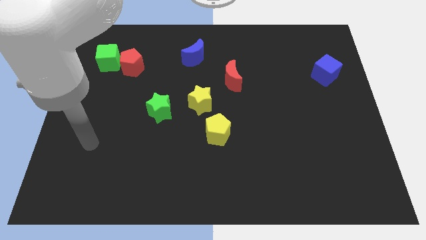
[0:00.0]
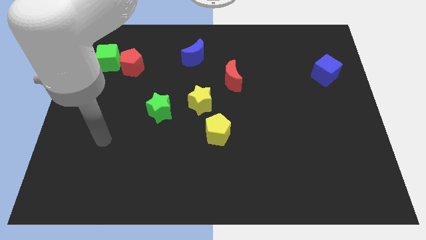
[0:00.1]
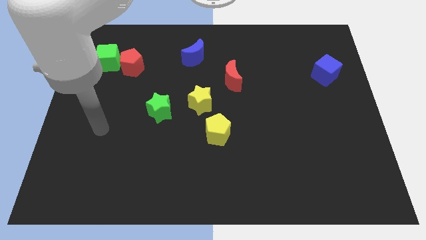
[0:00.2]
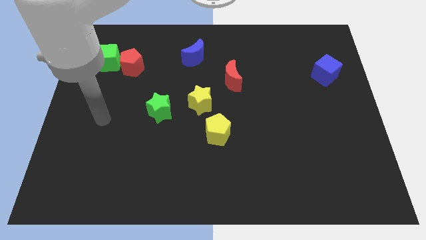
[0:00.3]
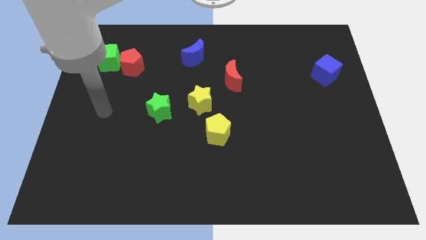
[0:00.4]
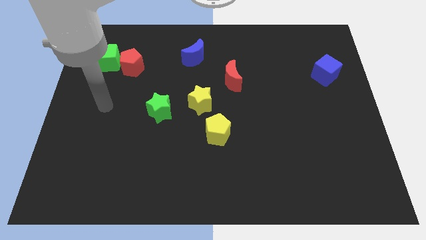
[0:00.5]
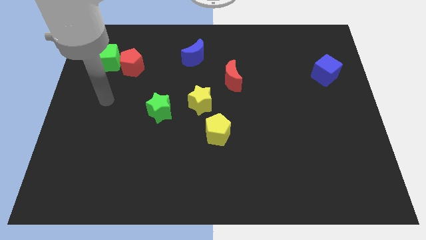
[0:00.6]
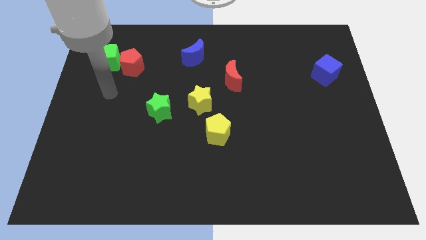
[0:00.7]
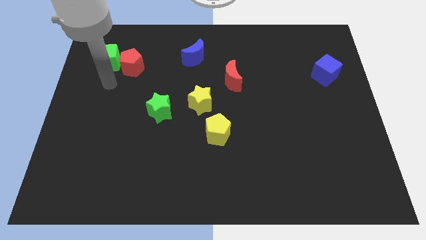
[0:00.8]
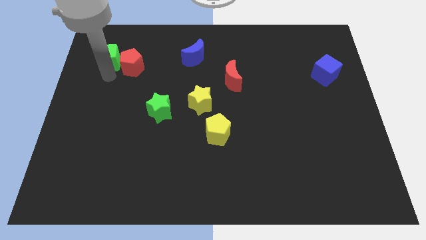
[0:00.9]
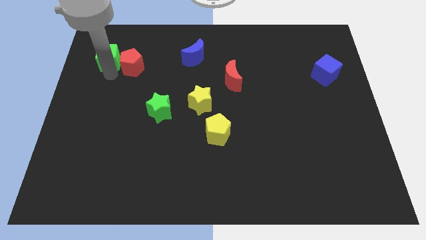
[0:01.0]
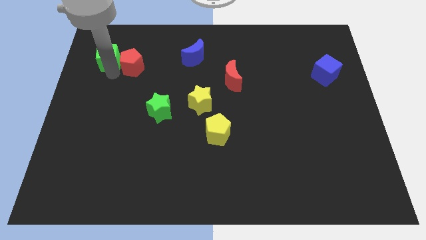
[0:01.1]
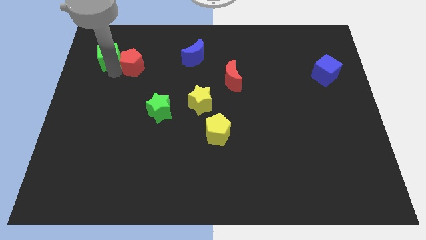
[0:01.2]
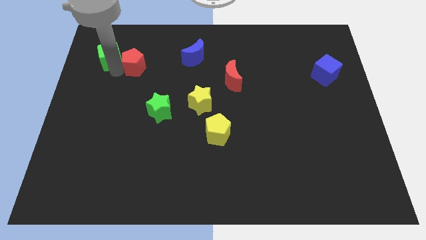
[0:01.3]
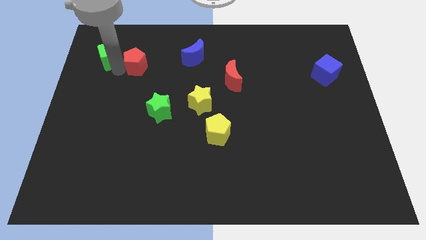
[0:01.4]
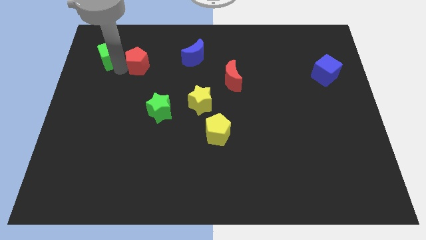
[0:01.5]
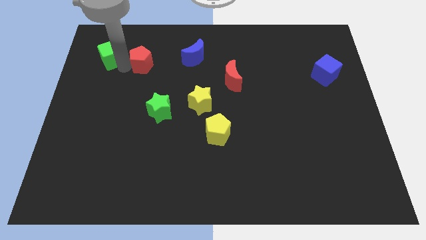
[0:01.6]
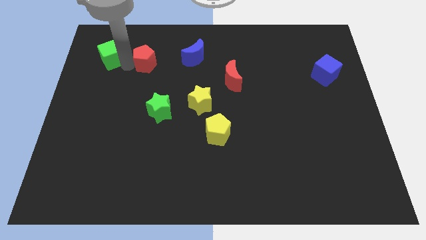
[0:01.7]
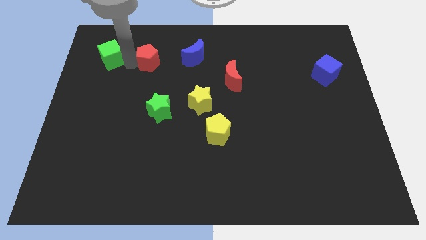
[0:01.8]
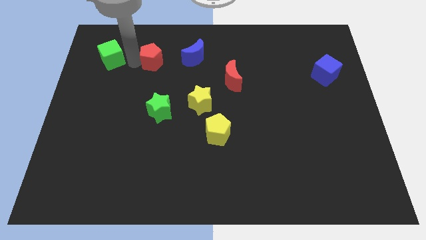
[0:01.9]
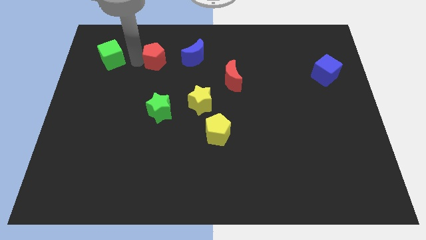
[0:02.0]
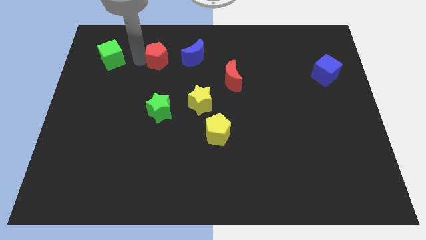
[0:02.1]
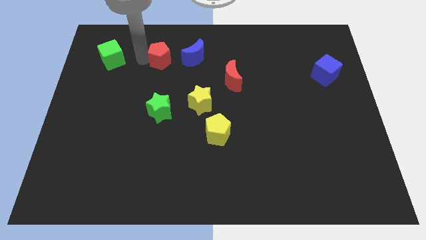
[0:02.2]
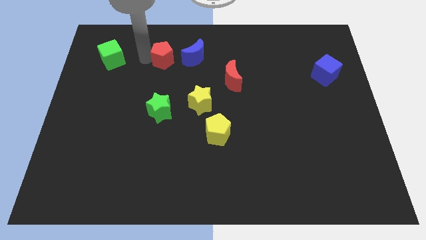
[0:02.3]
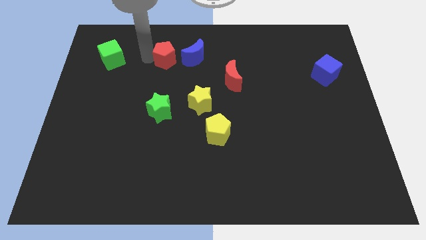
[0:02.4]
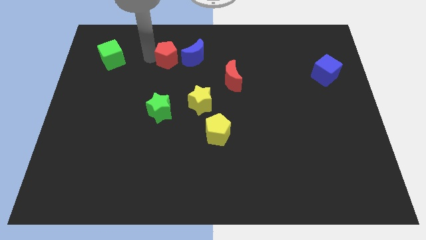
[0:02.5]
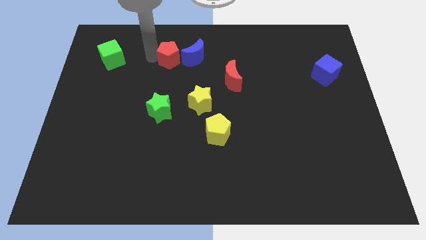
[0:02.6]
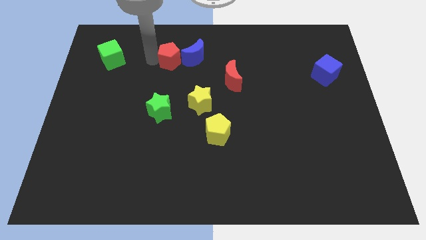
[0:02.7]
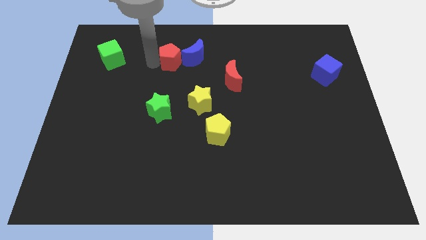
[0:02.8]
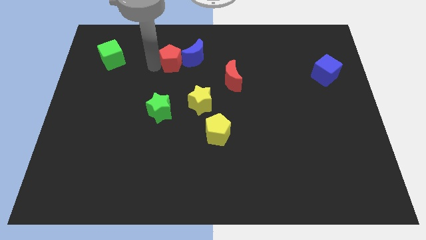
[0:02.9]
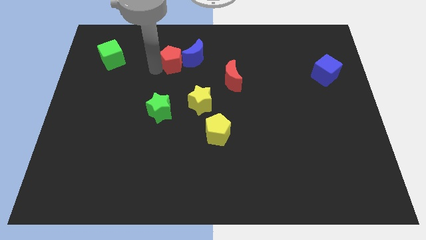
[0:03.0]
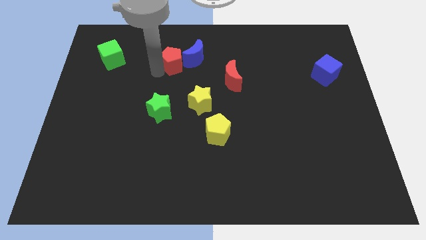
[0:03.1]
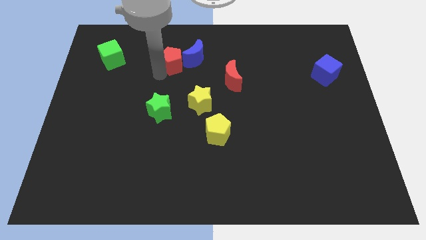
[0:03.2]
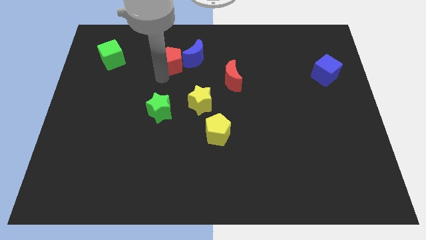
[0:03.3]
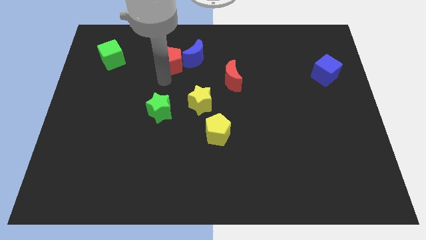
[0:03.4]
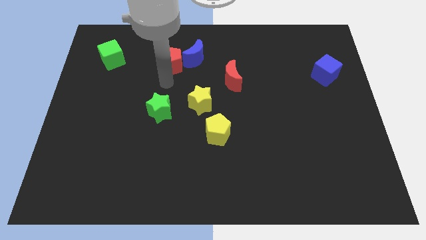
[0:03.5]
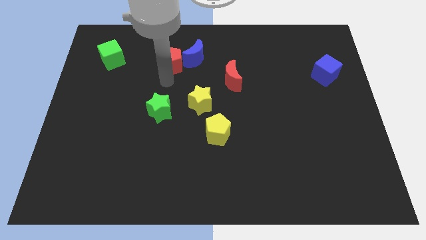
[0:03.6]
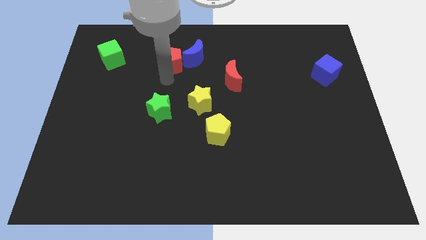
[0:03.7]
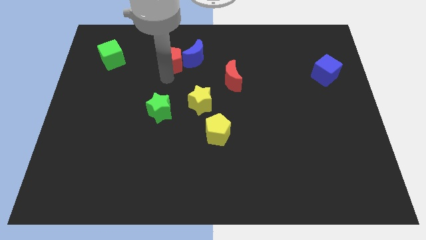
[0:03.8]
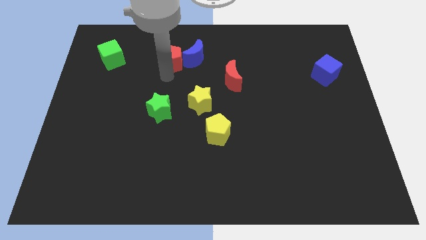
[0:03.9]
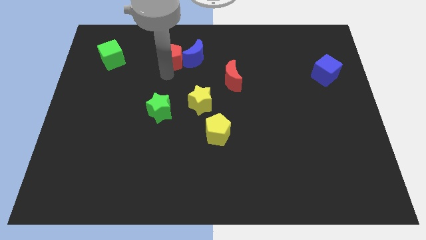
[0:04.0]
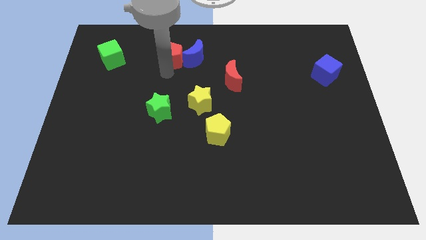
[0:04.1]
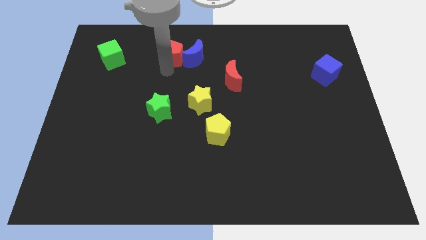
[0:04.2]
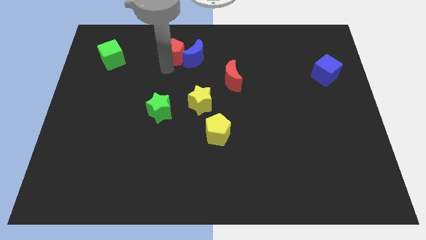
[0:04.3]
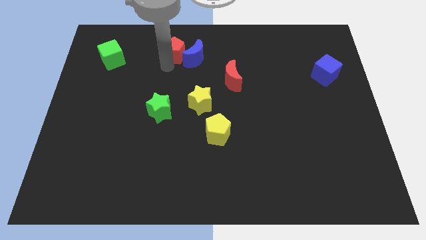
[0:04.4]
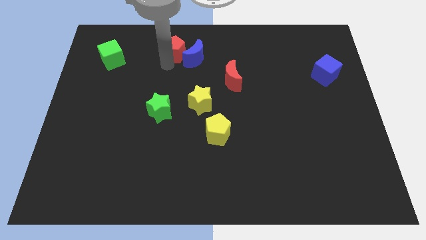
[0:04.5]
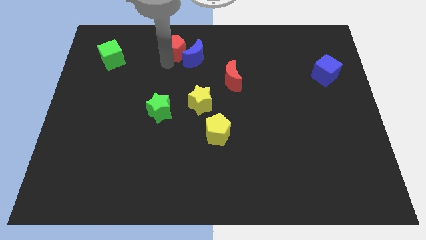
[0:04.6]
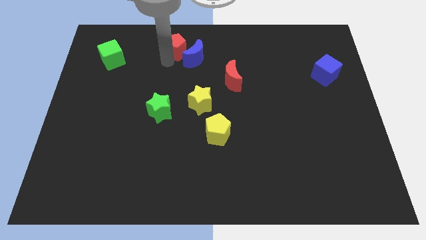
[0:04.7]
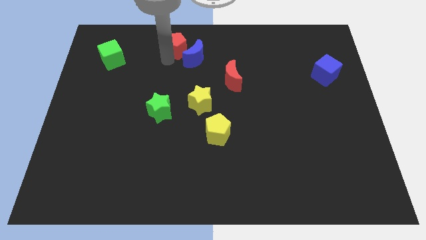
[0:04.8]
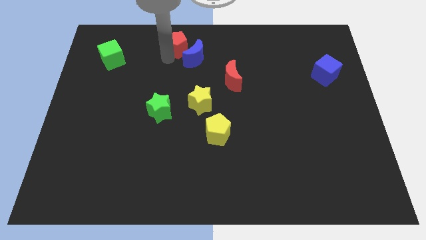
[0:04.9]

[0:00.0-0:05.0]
put the red pentagon to the top
